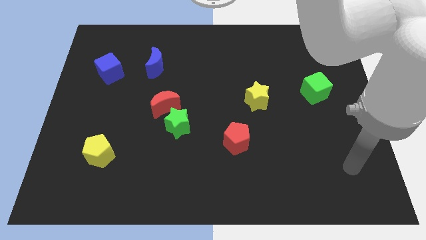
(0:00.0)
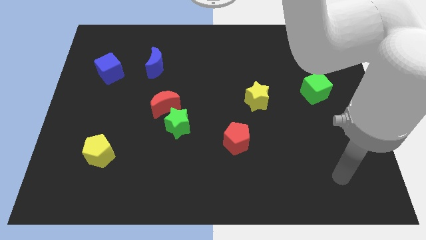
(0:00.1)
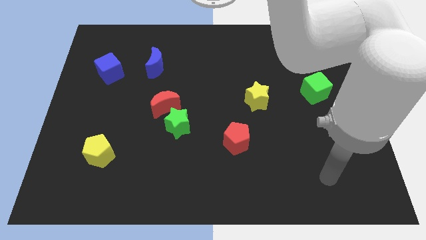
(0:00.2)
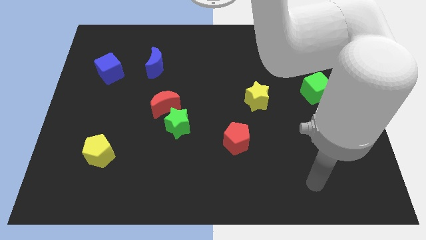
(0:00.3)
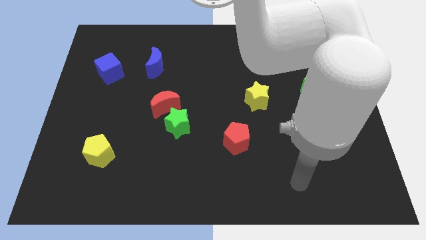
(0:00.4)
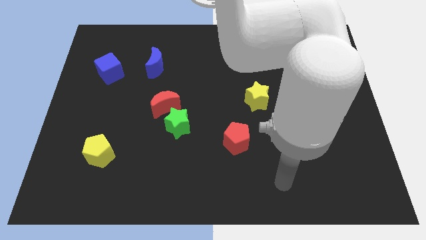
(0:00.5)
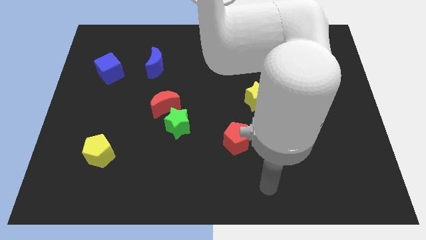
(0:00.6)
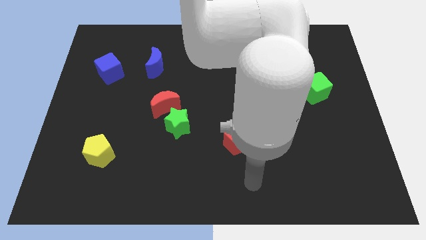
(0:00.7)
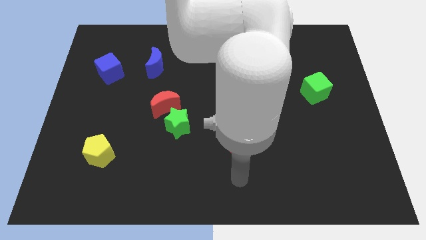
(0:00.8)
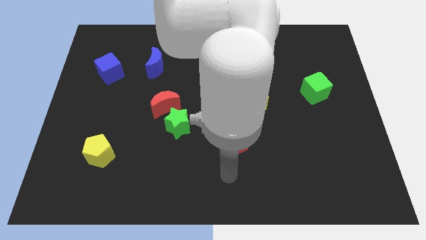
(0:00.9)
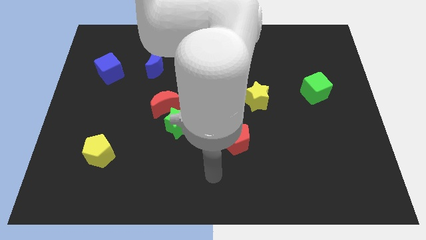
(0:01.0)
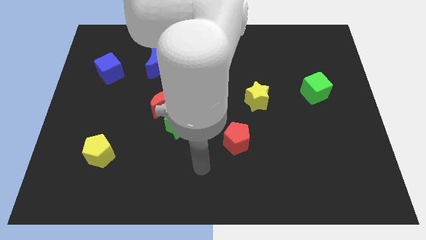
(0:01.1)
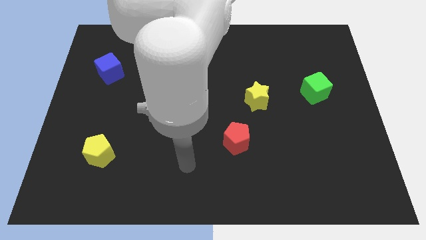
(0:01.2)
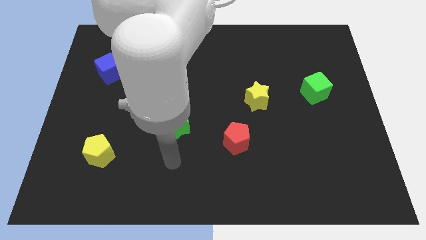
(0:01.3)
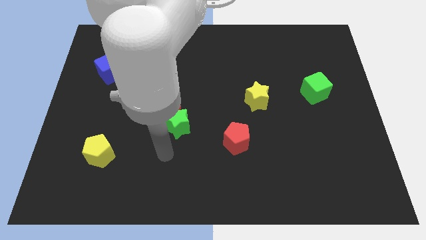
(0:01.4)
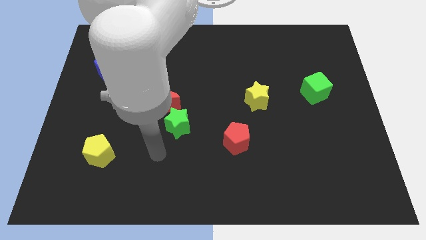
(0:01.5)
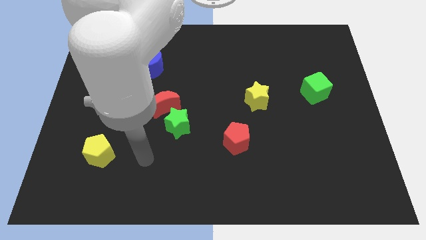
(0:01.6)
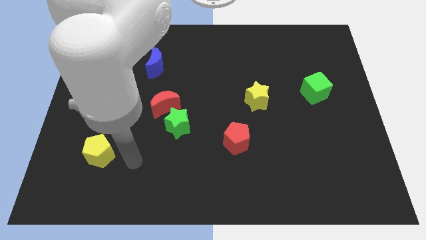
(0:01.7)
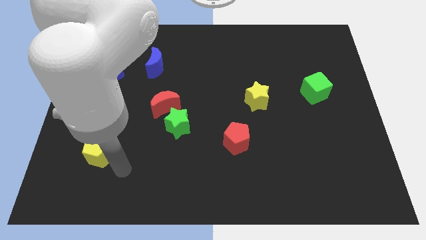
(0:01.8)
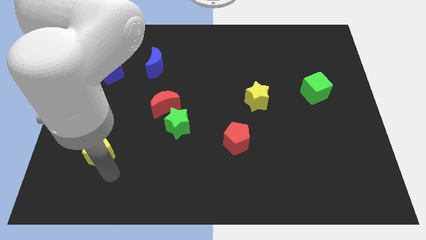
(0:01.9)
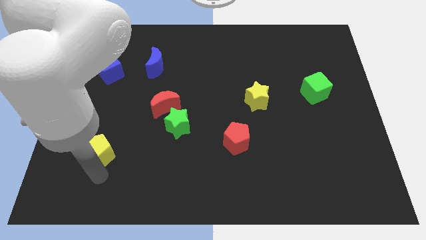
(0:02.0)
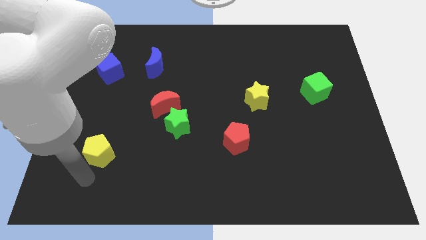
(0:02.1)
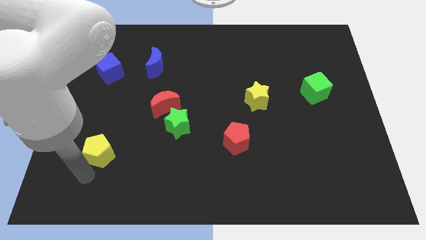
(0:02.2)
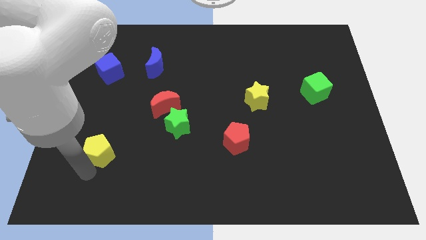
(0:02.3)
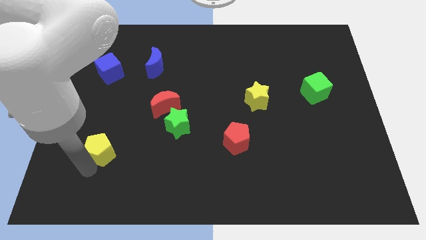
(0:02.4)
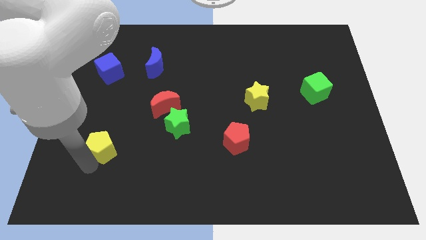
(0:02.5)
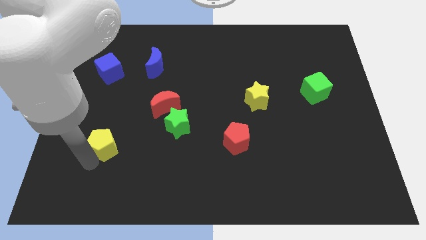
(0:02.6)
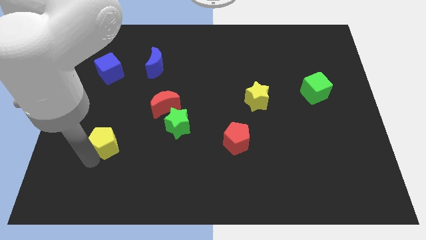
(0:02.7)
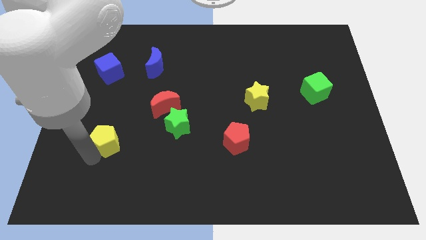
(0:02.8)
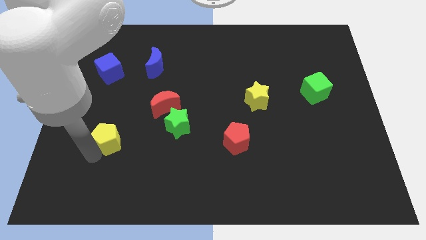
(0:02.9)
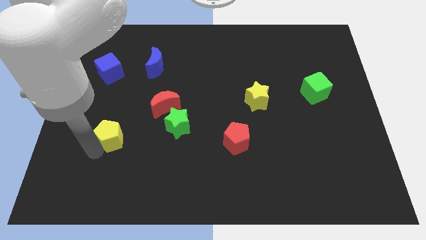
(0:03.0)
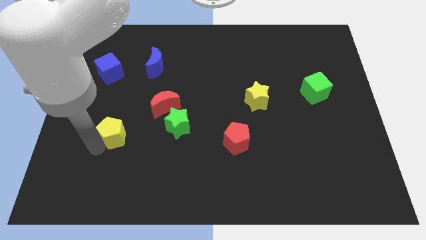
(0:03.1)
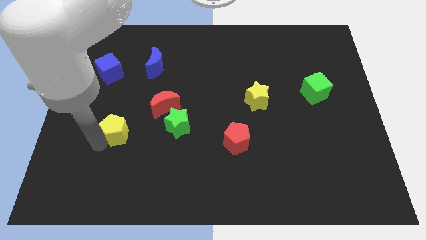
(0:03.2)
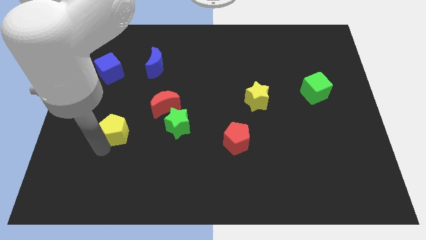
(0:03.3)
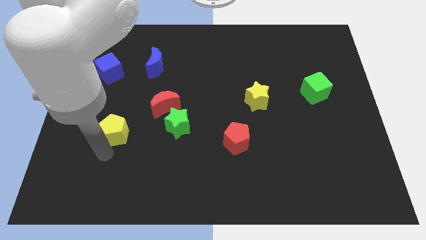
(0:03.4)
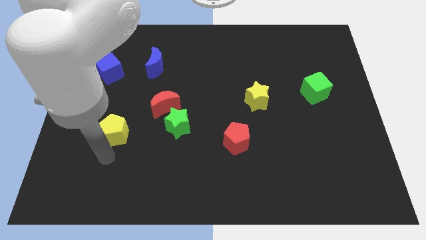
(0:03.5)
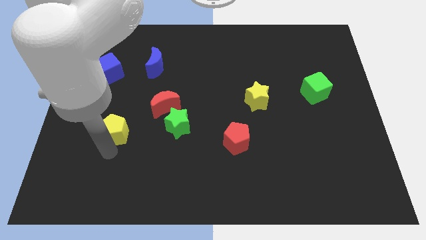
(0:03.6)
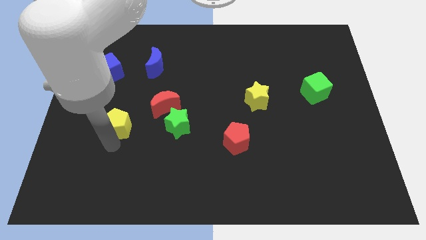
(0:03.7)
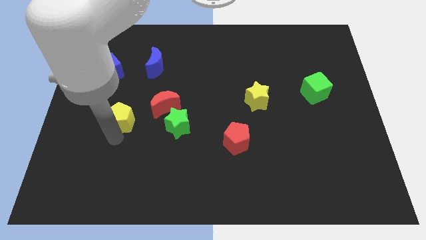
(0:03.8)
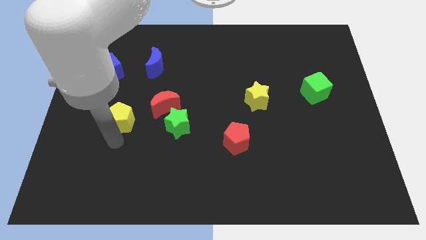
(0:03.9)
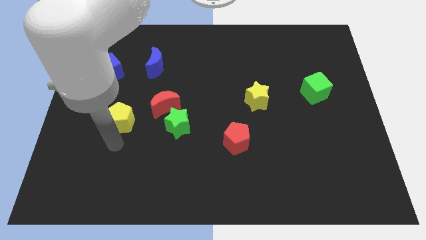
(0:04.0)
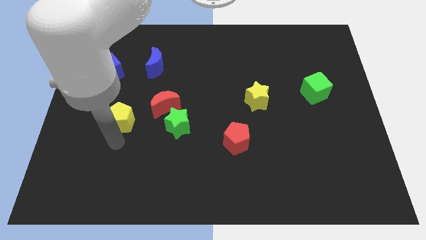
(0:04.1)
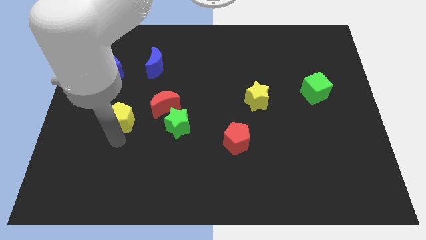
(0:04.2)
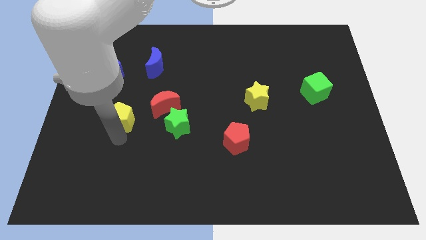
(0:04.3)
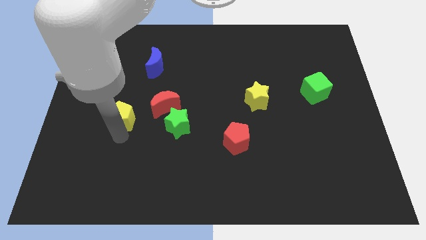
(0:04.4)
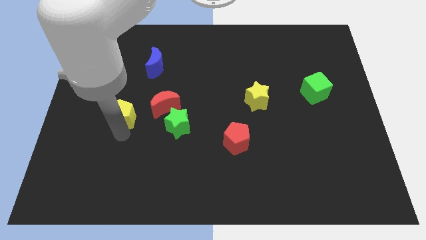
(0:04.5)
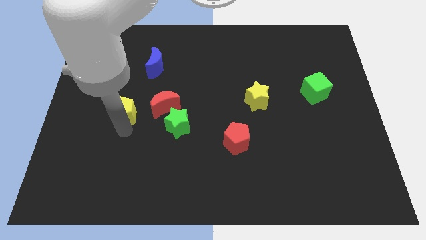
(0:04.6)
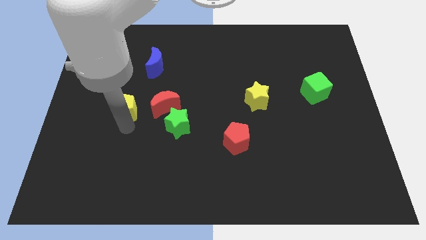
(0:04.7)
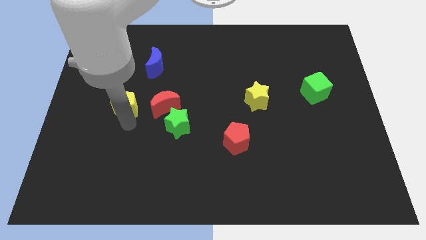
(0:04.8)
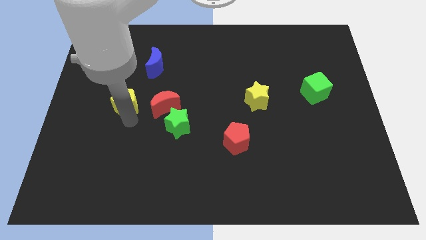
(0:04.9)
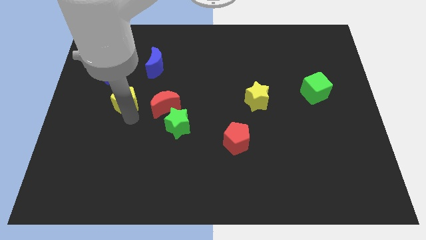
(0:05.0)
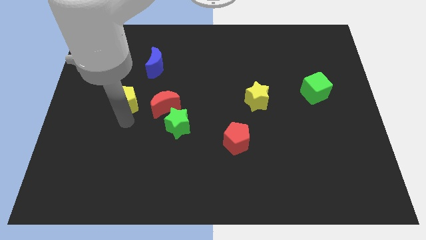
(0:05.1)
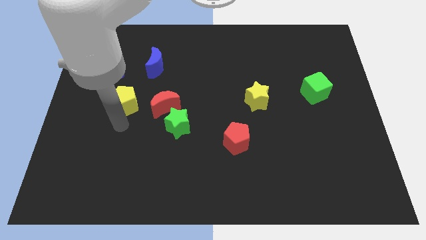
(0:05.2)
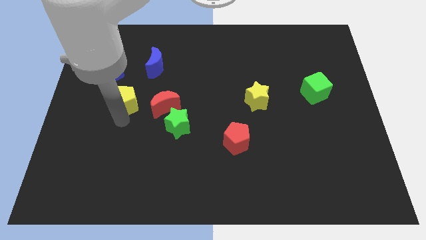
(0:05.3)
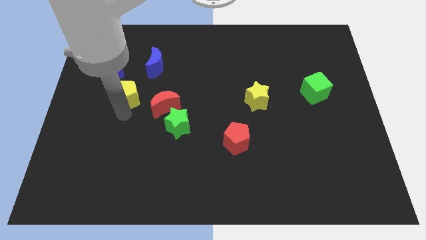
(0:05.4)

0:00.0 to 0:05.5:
move the yellow pentagon to the bottom left side of the blue moon

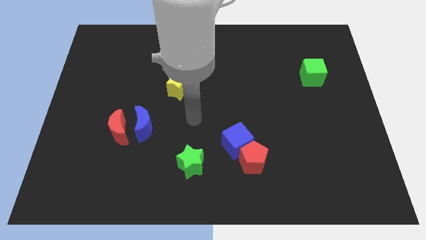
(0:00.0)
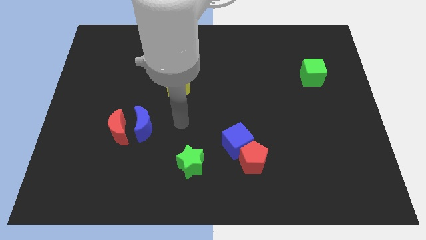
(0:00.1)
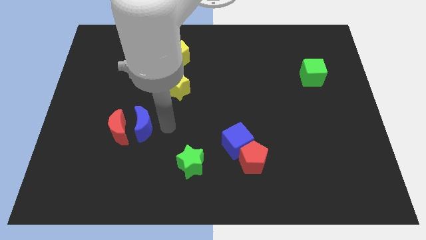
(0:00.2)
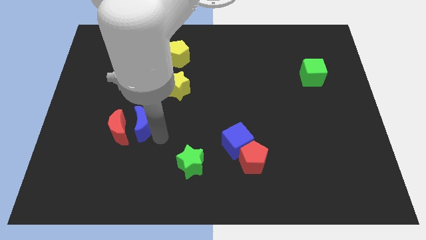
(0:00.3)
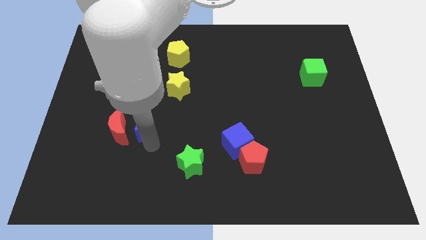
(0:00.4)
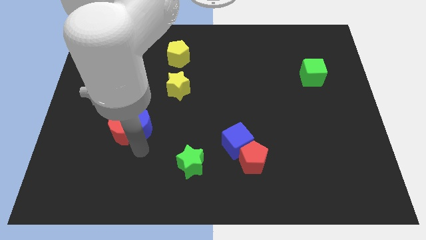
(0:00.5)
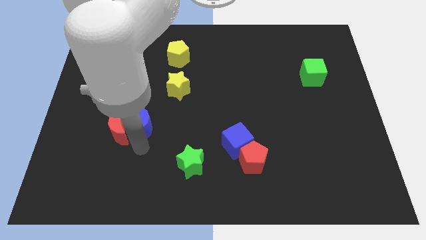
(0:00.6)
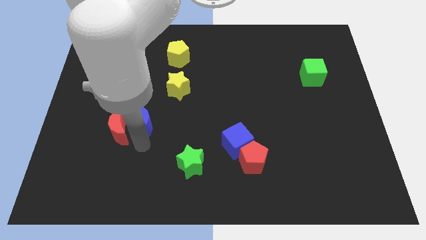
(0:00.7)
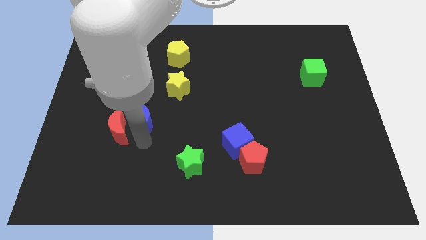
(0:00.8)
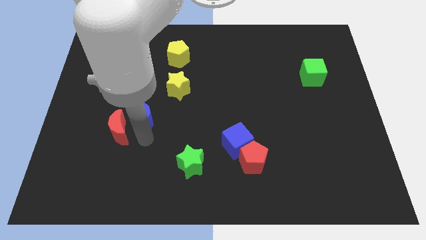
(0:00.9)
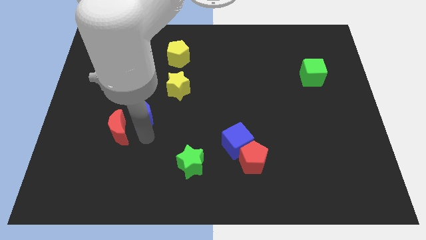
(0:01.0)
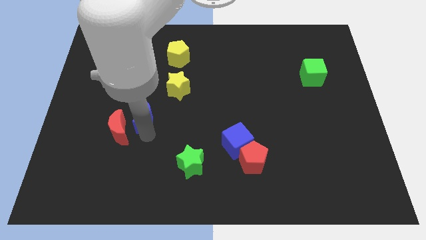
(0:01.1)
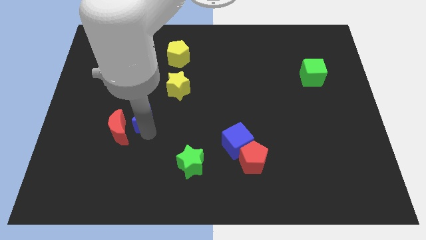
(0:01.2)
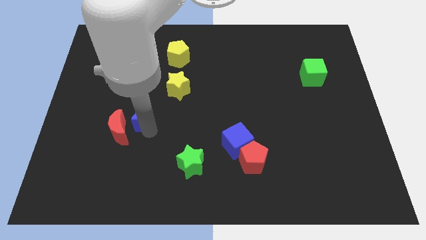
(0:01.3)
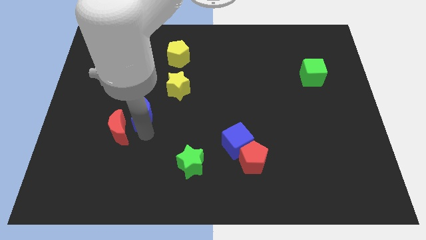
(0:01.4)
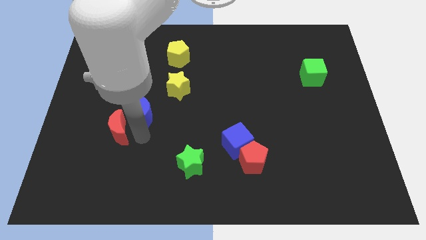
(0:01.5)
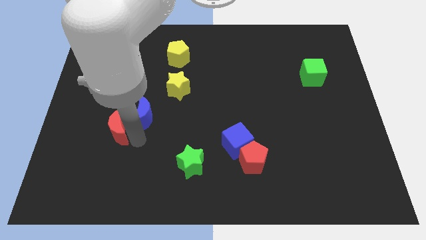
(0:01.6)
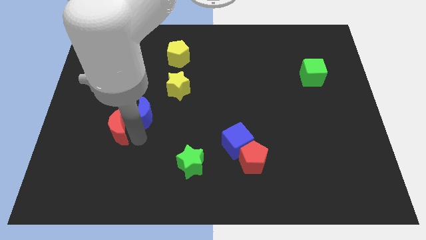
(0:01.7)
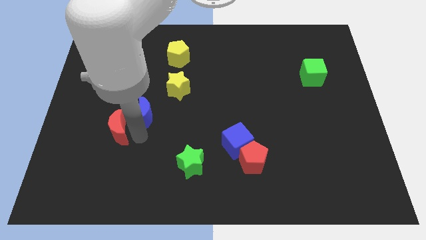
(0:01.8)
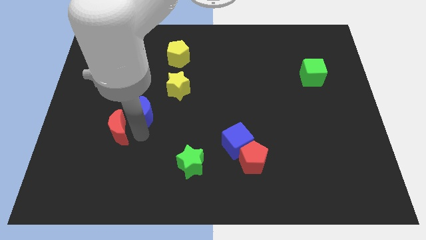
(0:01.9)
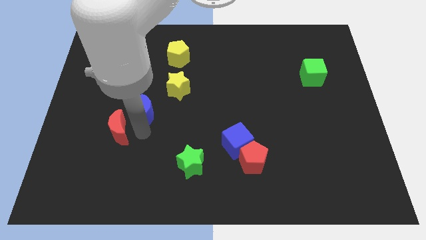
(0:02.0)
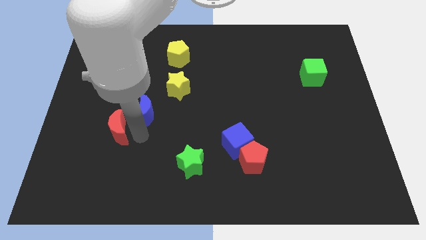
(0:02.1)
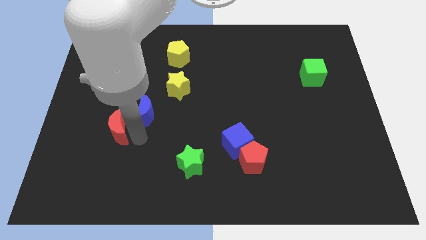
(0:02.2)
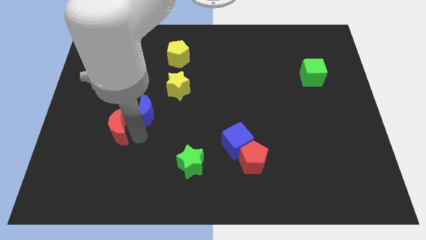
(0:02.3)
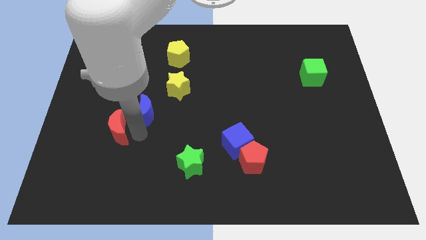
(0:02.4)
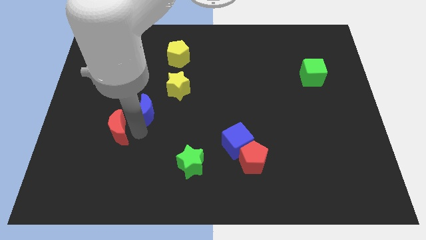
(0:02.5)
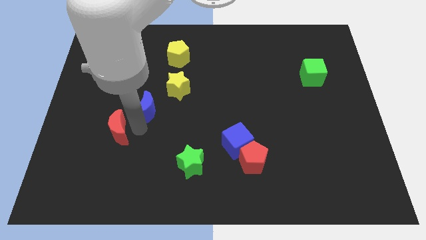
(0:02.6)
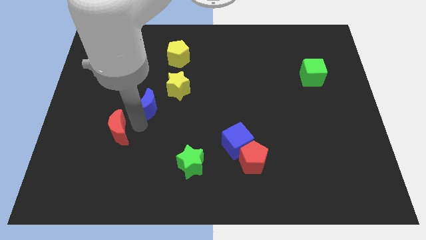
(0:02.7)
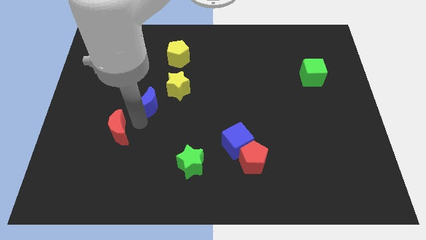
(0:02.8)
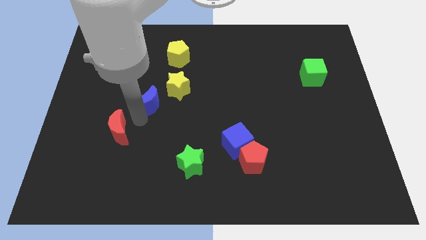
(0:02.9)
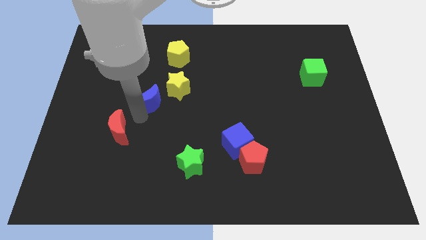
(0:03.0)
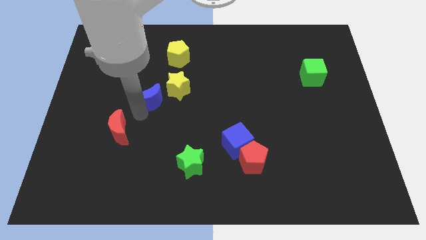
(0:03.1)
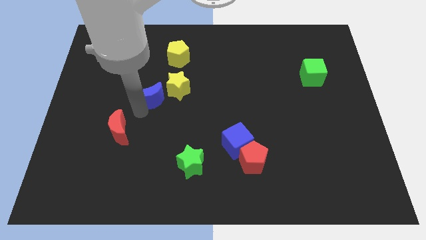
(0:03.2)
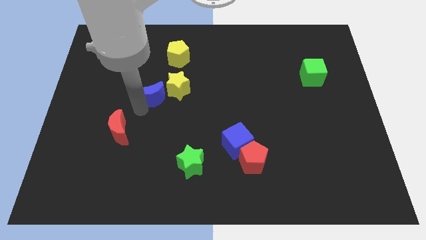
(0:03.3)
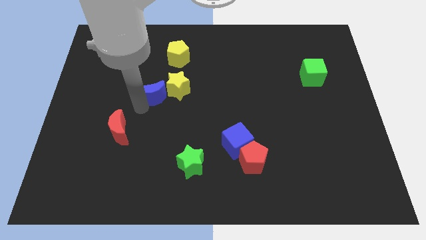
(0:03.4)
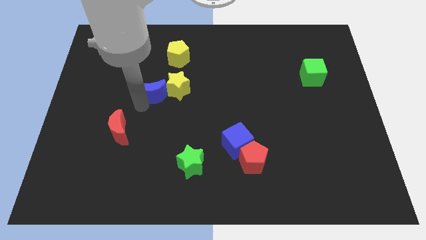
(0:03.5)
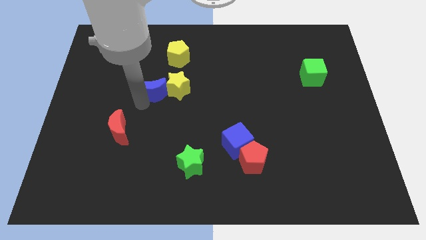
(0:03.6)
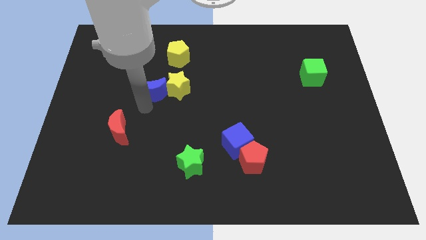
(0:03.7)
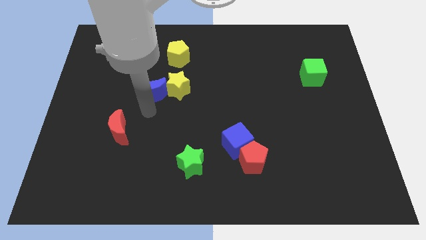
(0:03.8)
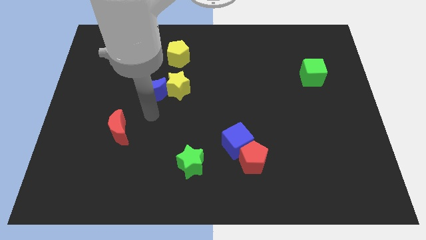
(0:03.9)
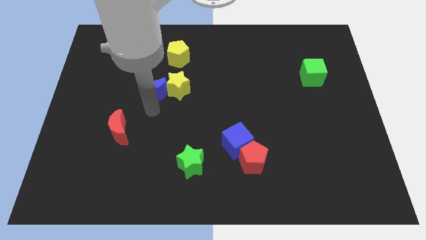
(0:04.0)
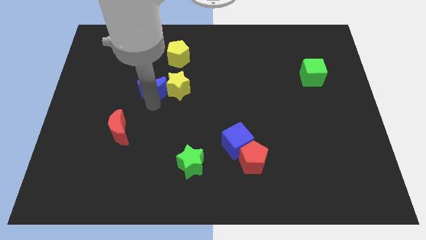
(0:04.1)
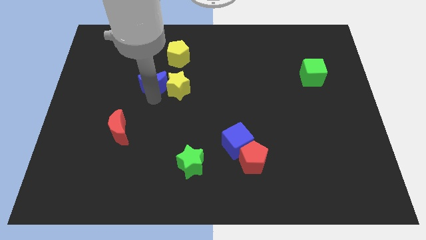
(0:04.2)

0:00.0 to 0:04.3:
move the blue moon to the bottom left side of the yellow pentagon
